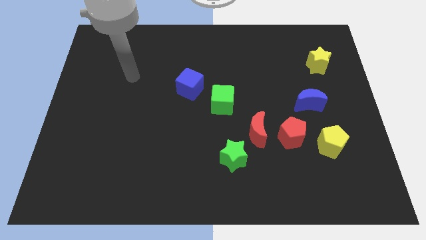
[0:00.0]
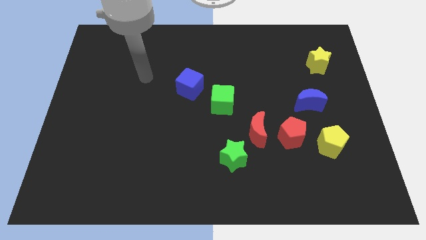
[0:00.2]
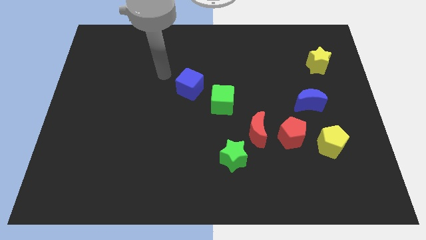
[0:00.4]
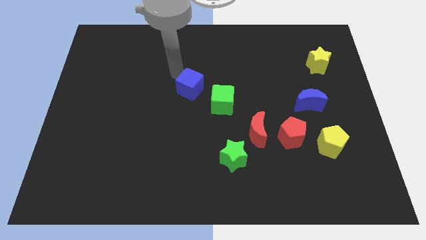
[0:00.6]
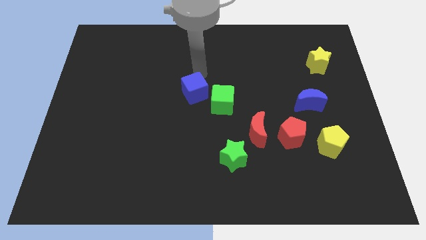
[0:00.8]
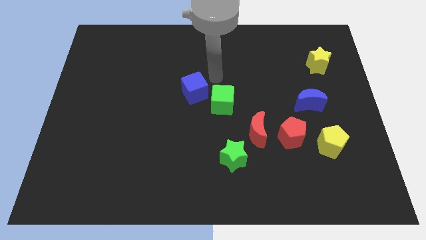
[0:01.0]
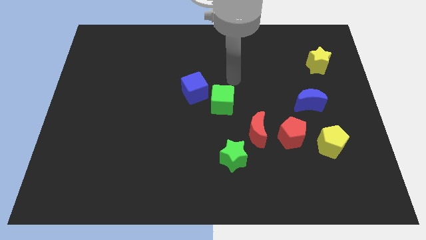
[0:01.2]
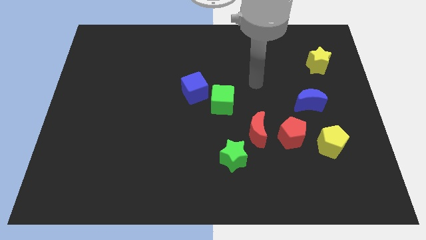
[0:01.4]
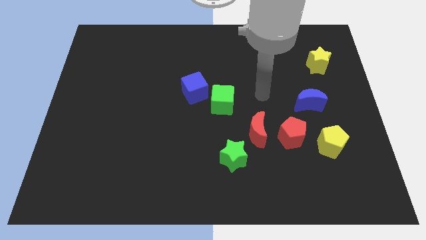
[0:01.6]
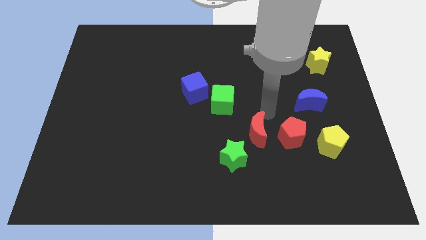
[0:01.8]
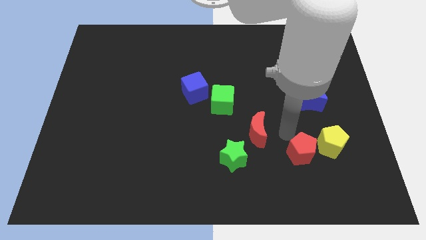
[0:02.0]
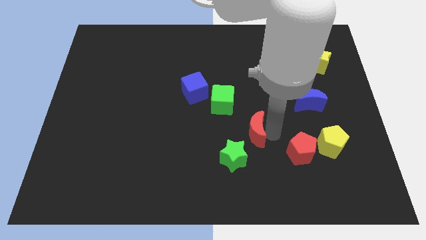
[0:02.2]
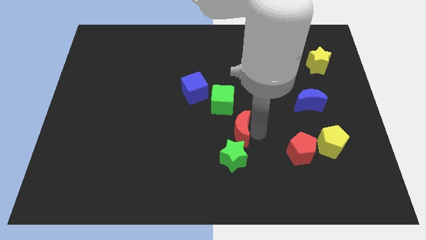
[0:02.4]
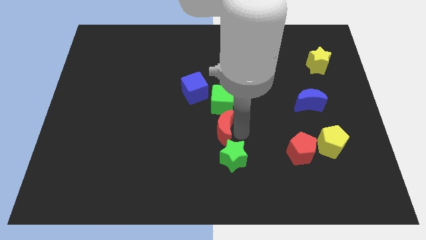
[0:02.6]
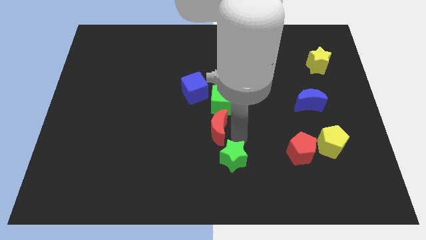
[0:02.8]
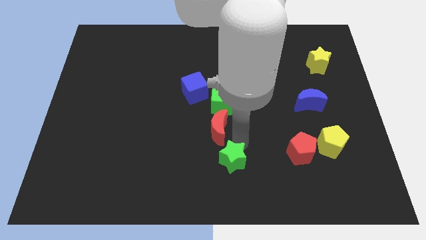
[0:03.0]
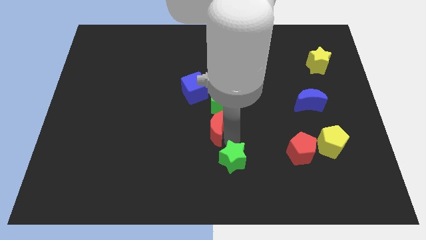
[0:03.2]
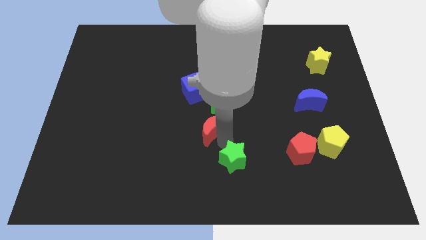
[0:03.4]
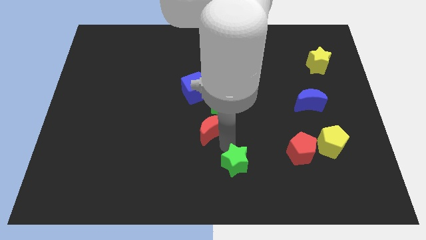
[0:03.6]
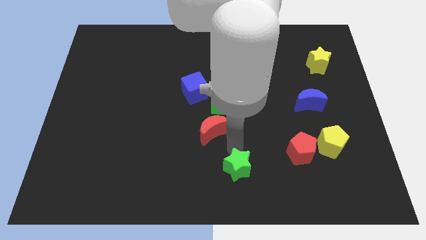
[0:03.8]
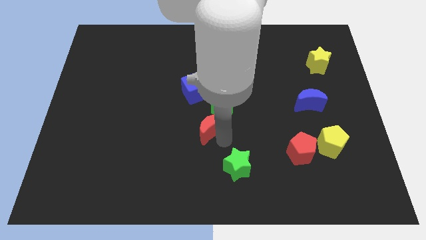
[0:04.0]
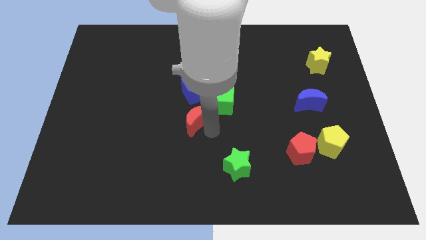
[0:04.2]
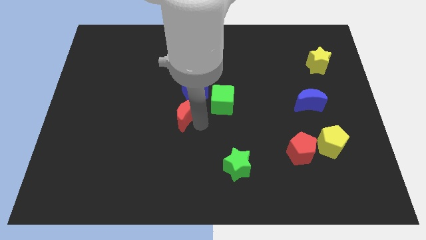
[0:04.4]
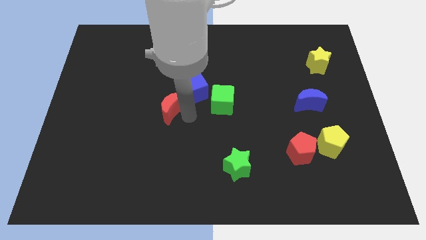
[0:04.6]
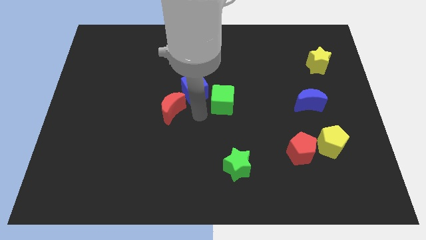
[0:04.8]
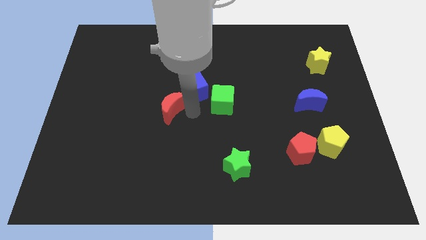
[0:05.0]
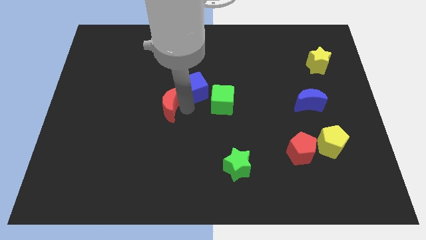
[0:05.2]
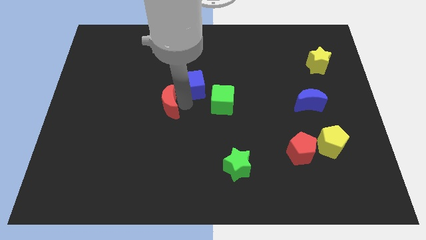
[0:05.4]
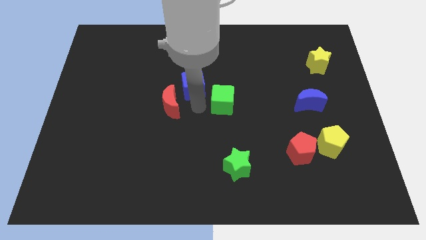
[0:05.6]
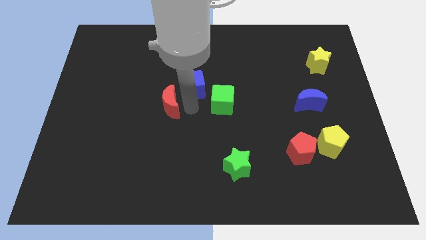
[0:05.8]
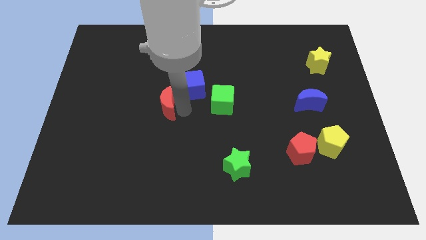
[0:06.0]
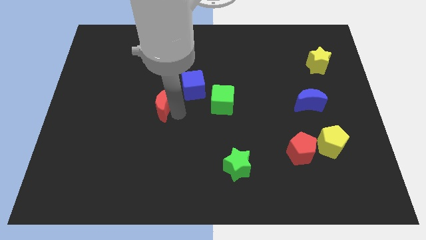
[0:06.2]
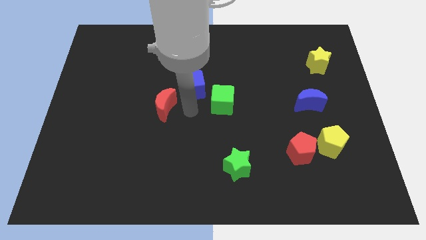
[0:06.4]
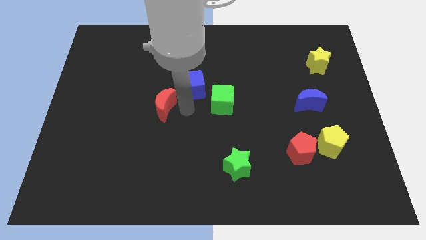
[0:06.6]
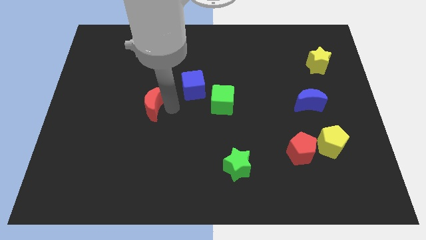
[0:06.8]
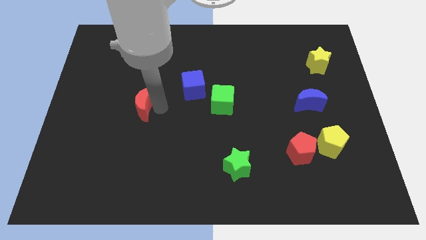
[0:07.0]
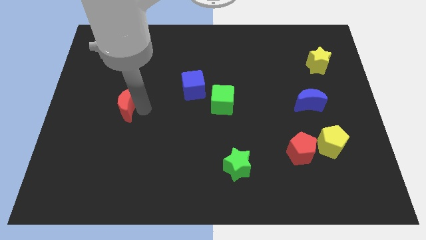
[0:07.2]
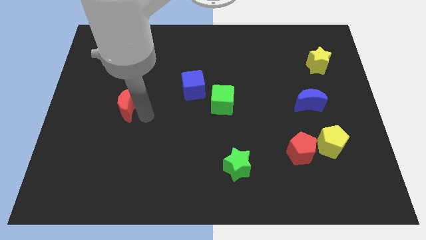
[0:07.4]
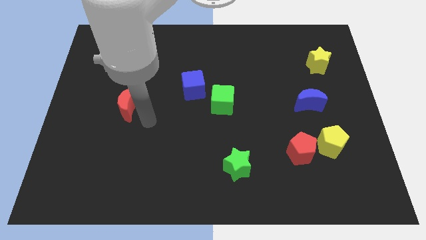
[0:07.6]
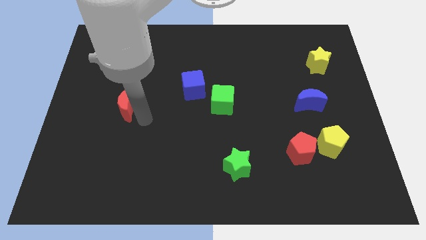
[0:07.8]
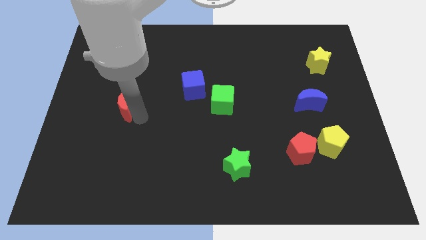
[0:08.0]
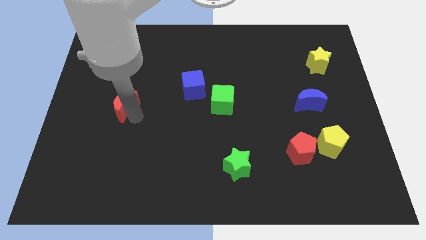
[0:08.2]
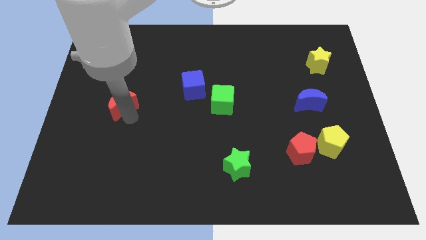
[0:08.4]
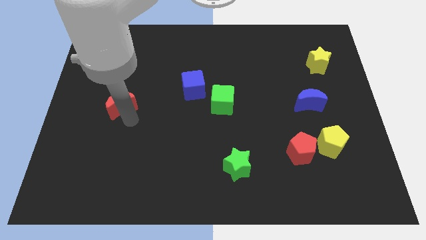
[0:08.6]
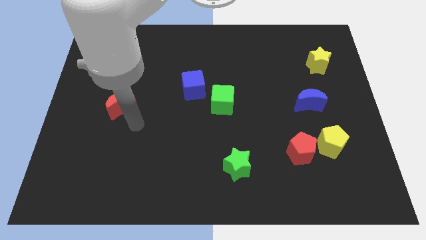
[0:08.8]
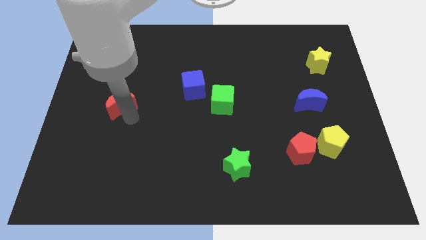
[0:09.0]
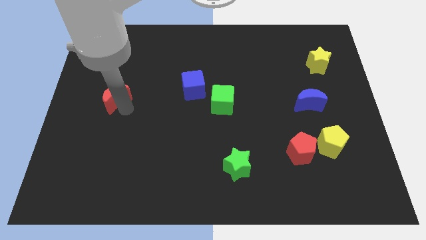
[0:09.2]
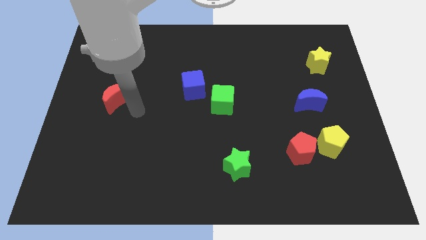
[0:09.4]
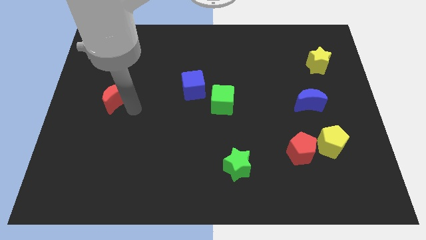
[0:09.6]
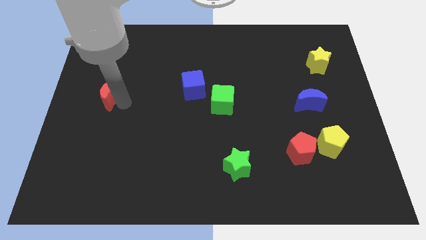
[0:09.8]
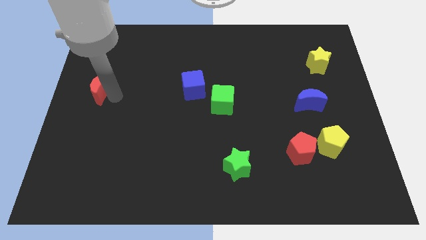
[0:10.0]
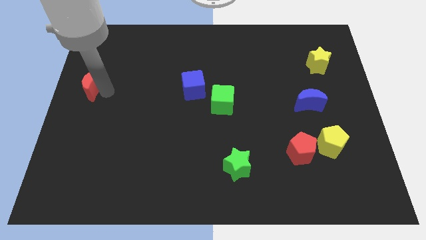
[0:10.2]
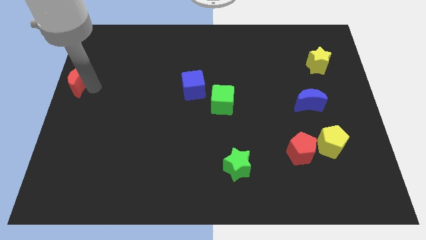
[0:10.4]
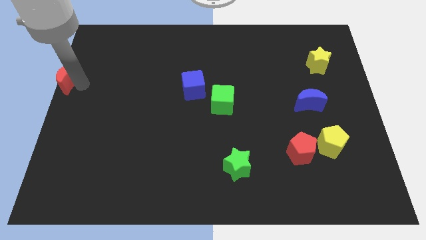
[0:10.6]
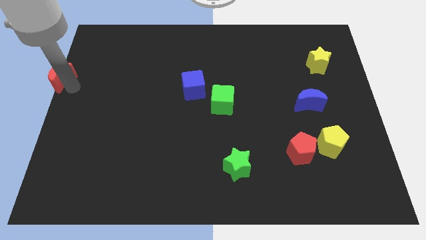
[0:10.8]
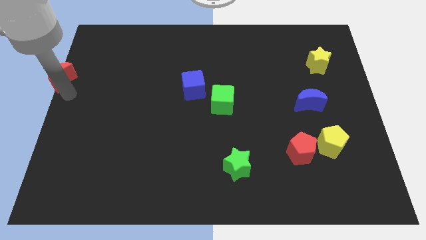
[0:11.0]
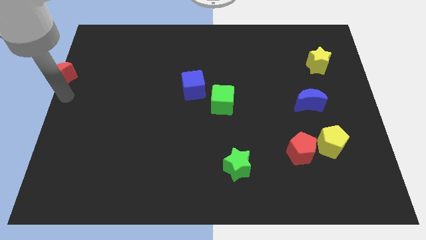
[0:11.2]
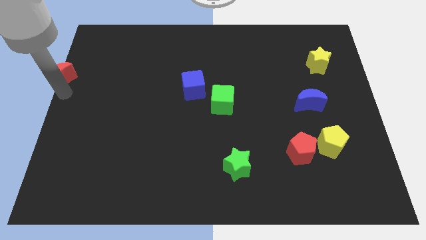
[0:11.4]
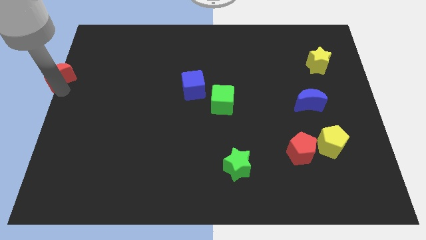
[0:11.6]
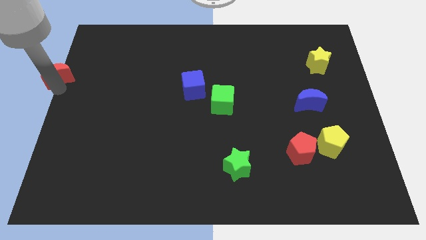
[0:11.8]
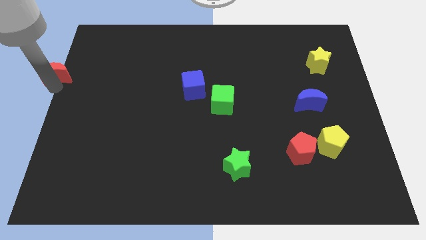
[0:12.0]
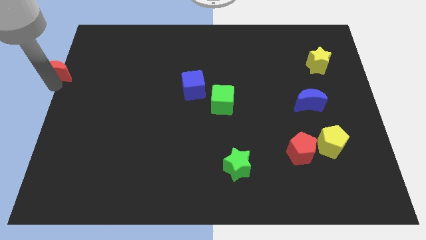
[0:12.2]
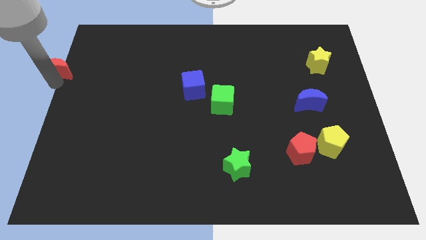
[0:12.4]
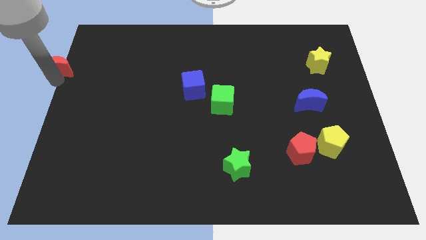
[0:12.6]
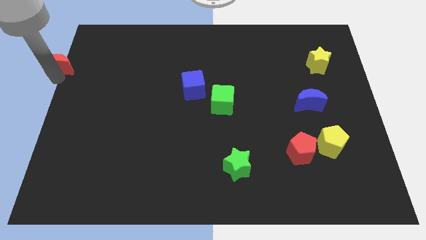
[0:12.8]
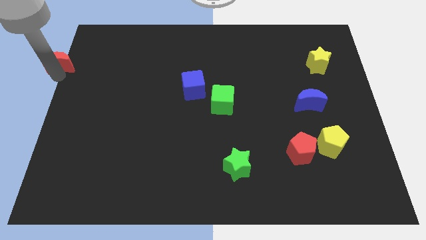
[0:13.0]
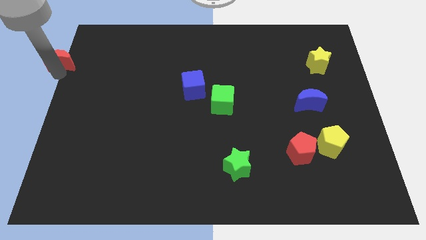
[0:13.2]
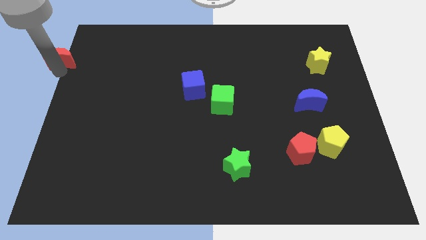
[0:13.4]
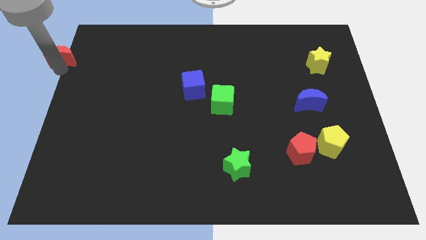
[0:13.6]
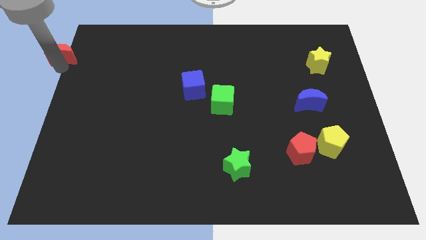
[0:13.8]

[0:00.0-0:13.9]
put the red moon to the upper left corner
